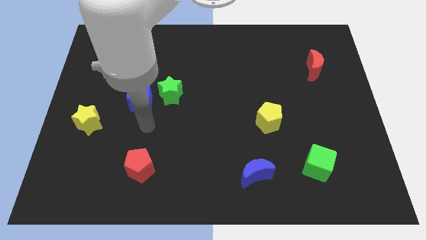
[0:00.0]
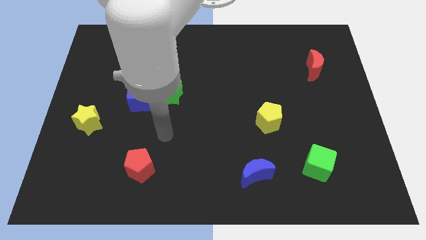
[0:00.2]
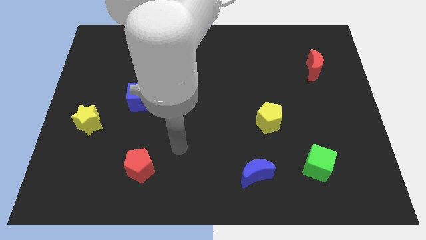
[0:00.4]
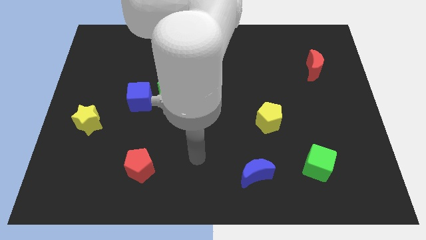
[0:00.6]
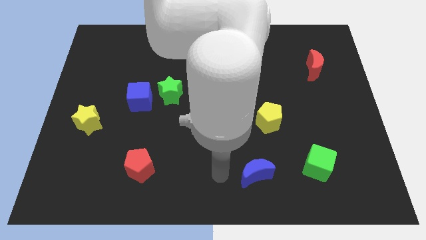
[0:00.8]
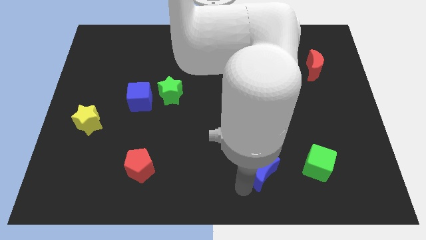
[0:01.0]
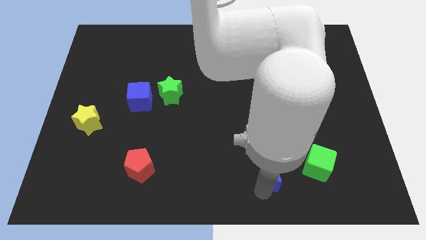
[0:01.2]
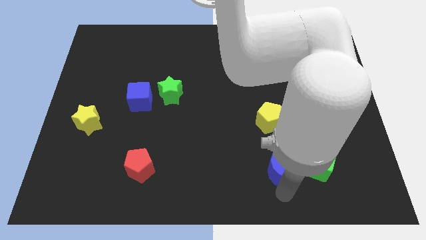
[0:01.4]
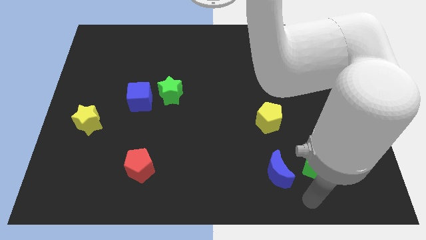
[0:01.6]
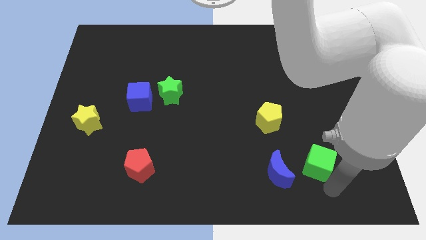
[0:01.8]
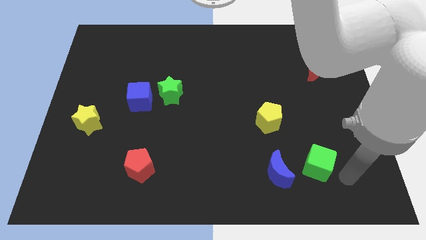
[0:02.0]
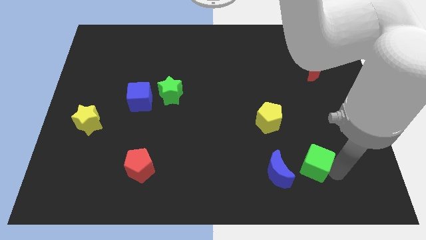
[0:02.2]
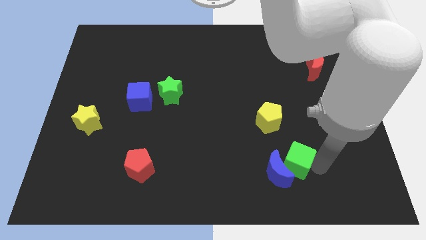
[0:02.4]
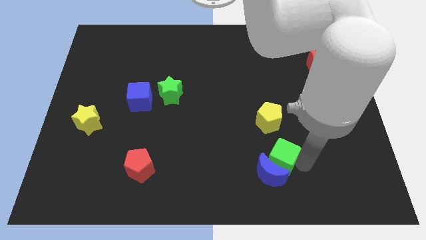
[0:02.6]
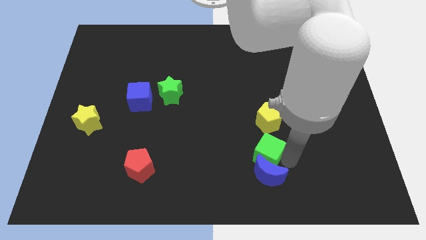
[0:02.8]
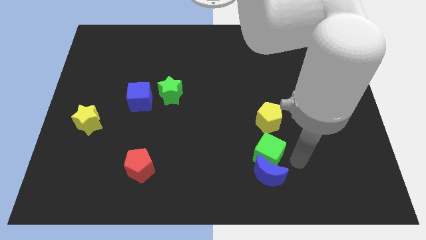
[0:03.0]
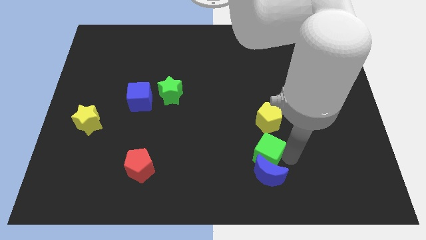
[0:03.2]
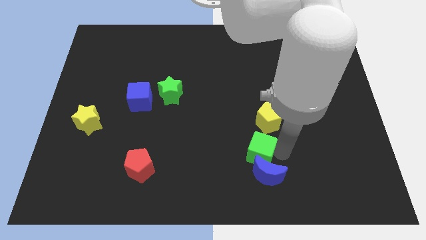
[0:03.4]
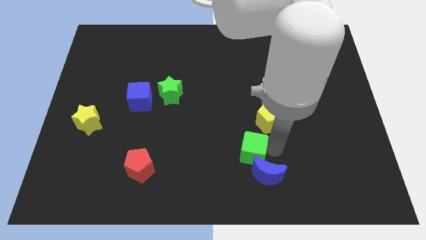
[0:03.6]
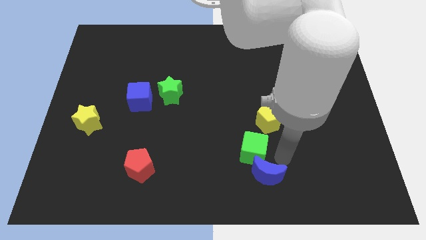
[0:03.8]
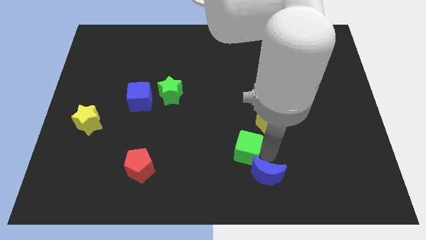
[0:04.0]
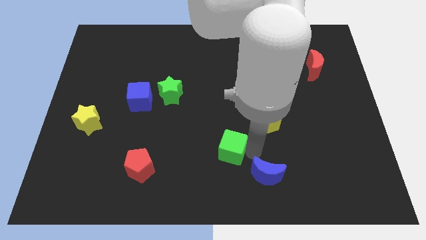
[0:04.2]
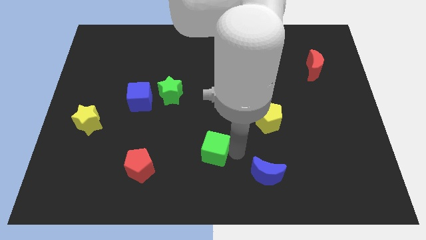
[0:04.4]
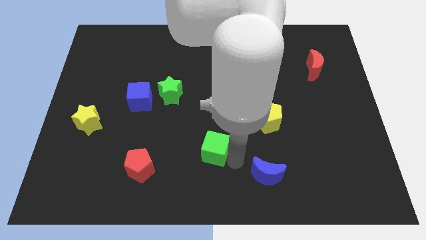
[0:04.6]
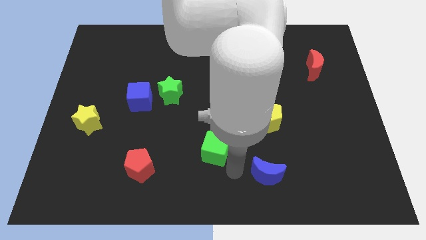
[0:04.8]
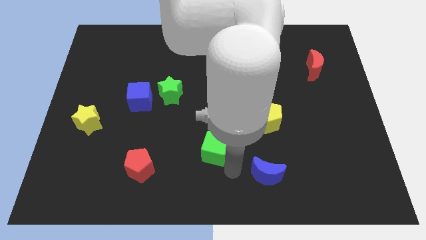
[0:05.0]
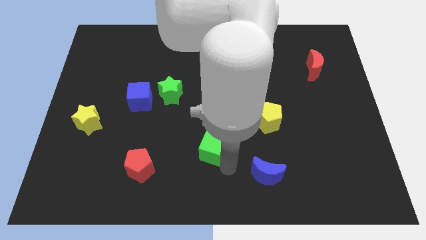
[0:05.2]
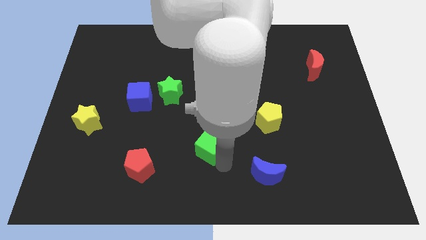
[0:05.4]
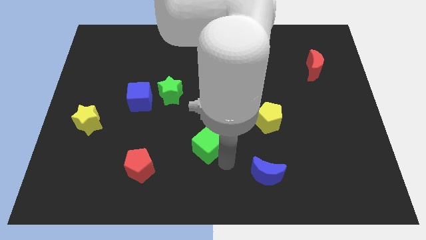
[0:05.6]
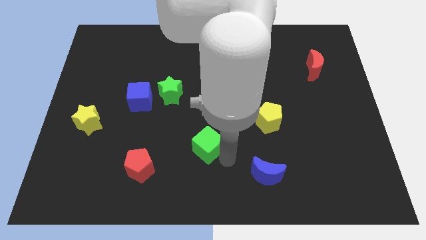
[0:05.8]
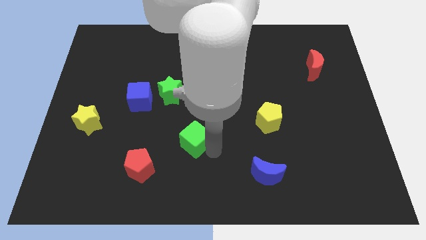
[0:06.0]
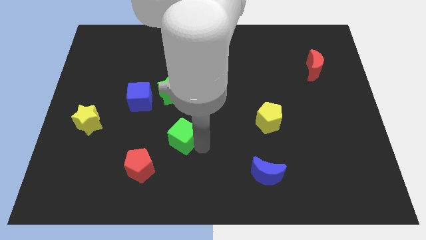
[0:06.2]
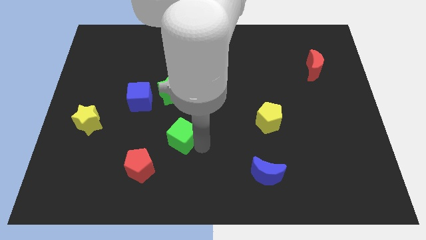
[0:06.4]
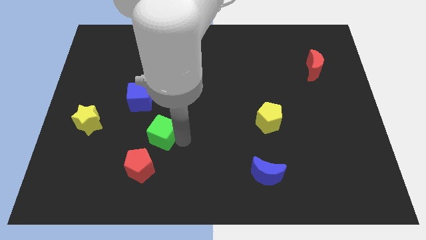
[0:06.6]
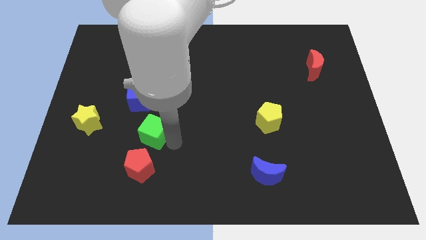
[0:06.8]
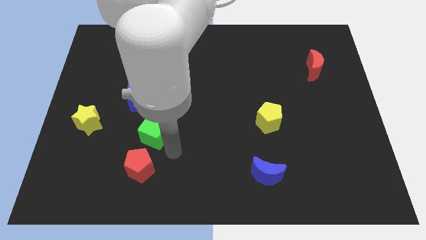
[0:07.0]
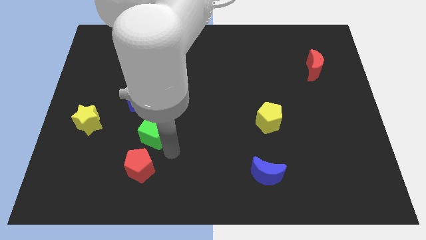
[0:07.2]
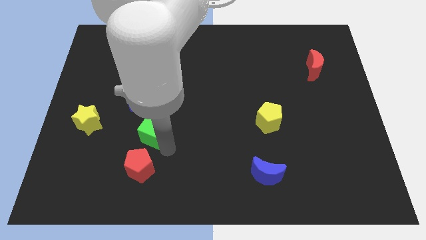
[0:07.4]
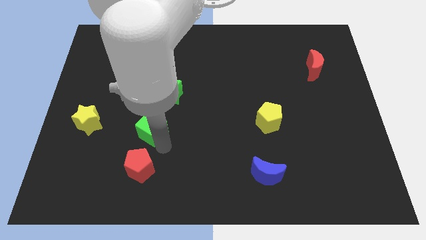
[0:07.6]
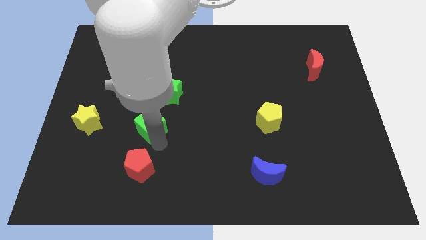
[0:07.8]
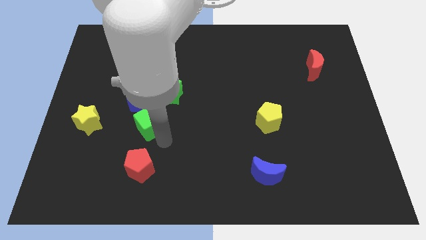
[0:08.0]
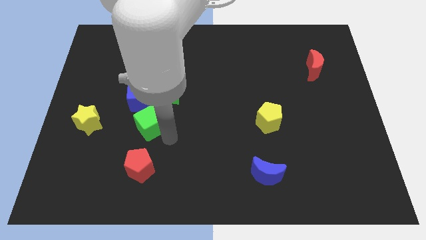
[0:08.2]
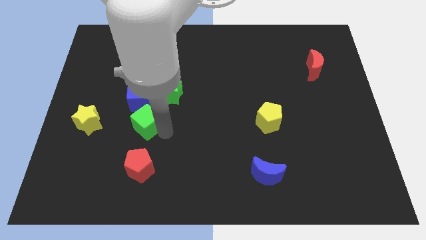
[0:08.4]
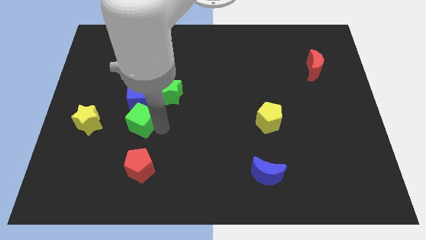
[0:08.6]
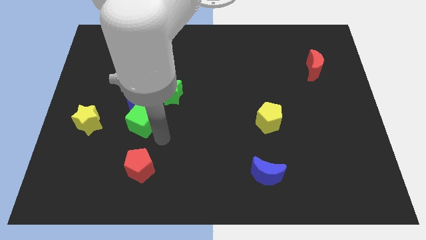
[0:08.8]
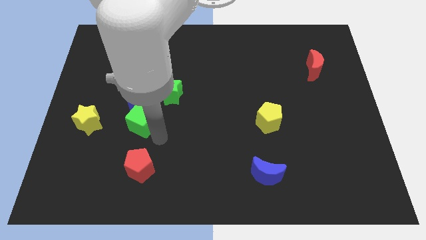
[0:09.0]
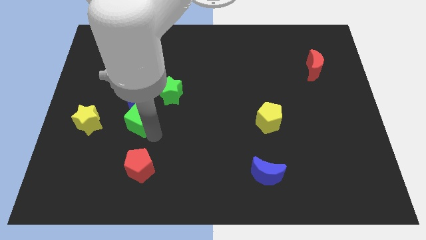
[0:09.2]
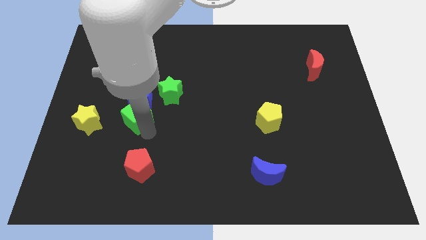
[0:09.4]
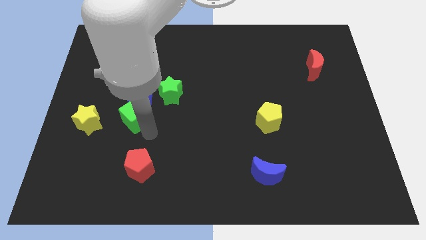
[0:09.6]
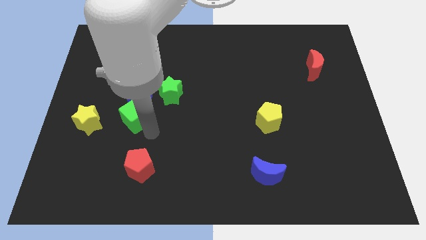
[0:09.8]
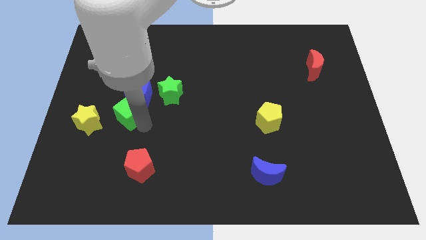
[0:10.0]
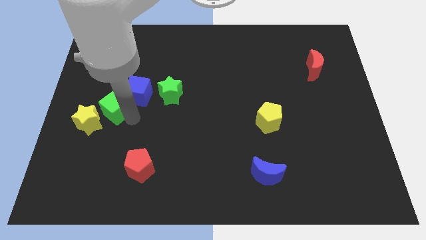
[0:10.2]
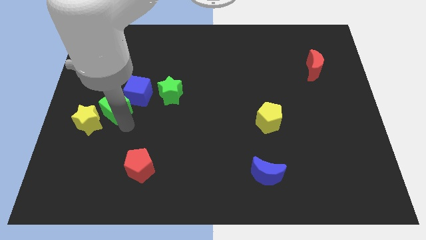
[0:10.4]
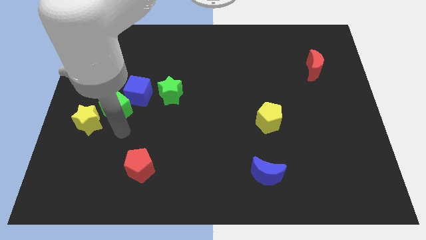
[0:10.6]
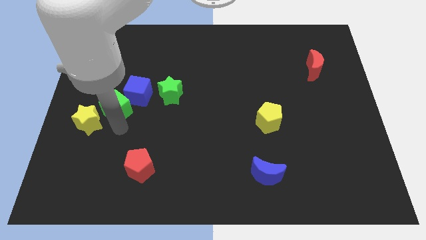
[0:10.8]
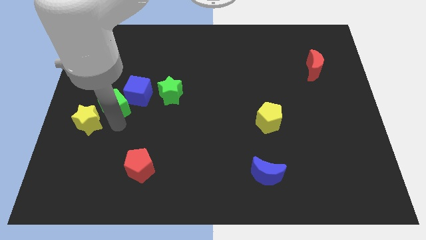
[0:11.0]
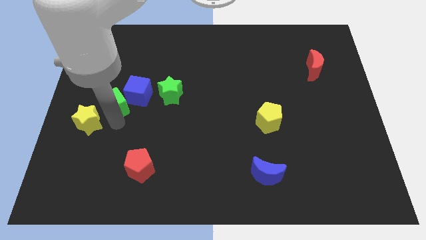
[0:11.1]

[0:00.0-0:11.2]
slide the green cube to the top of the yellow star

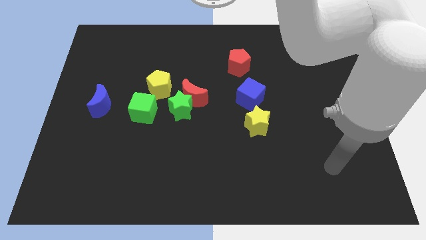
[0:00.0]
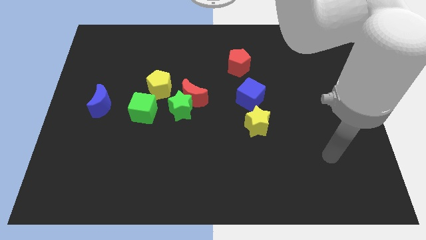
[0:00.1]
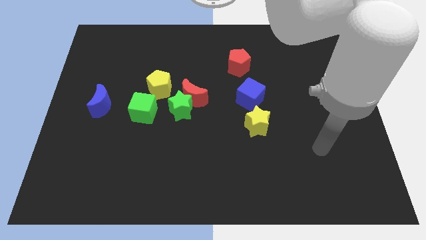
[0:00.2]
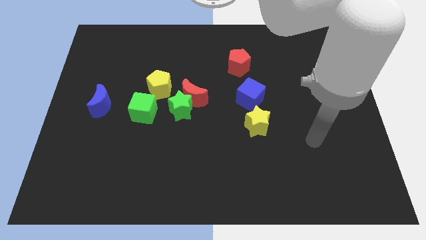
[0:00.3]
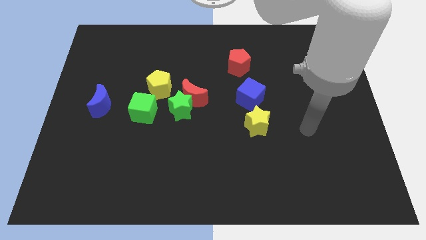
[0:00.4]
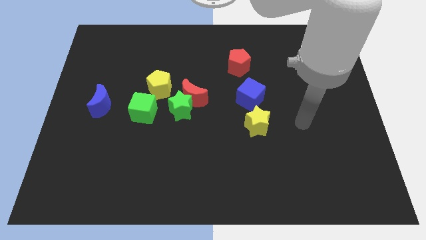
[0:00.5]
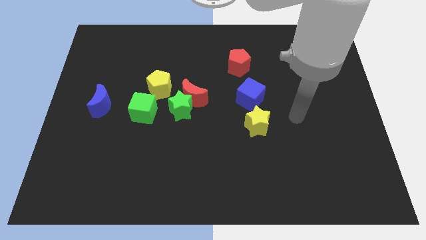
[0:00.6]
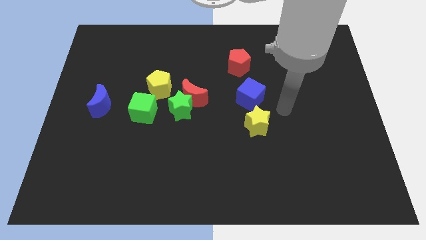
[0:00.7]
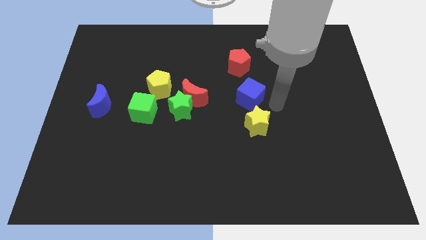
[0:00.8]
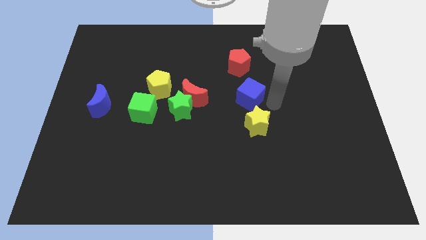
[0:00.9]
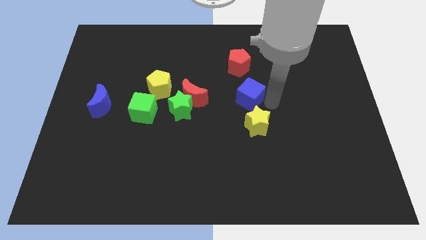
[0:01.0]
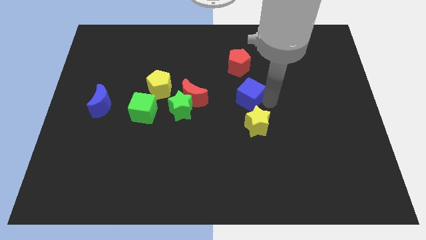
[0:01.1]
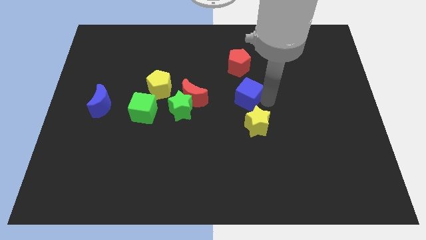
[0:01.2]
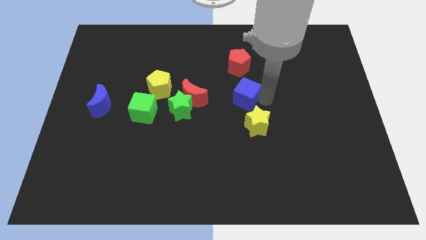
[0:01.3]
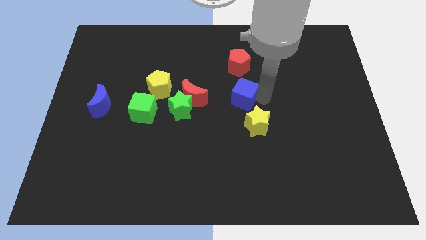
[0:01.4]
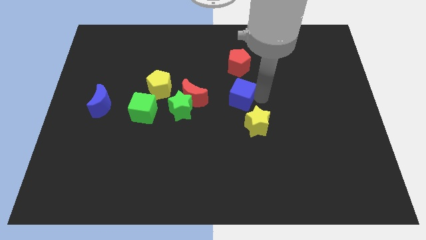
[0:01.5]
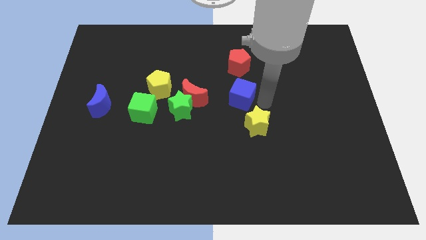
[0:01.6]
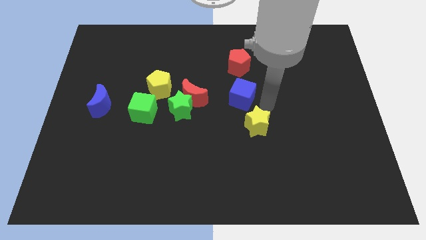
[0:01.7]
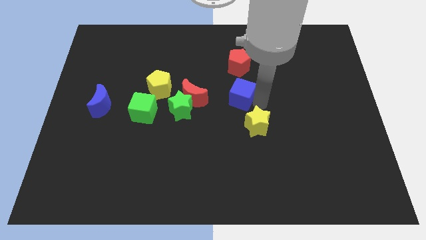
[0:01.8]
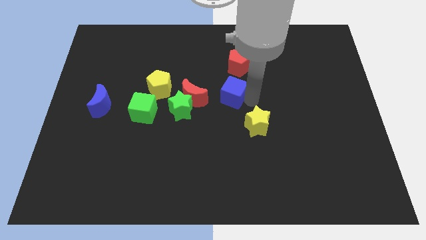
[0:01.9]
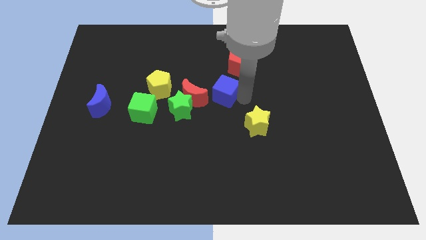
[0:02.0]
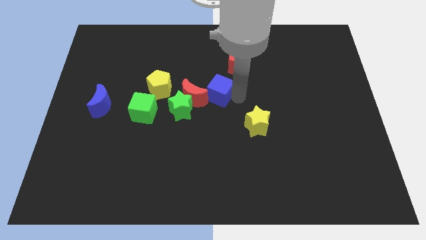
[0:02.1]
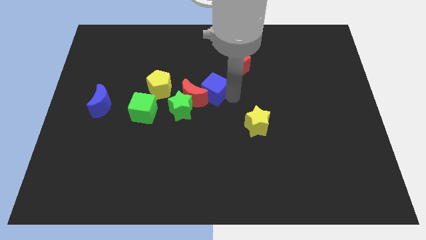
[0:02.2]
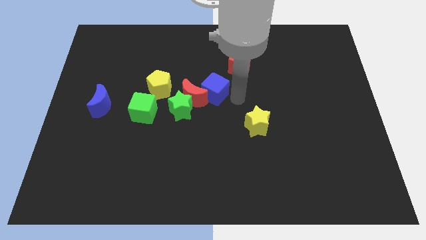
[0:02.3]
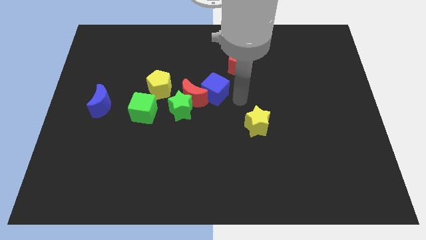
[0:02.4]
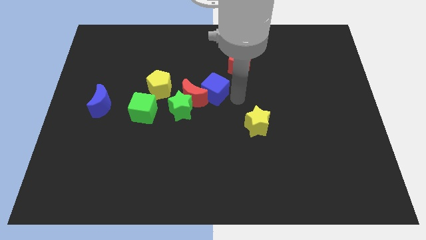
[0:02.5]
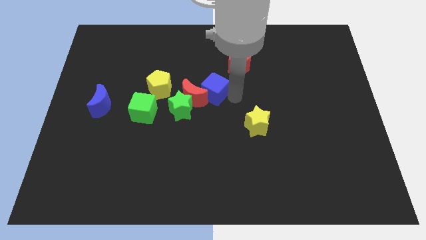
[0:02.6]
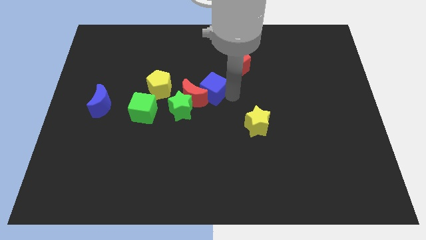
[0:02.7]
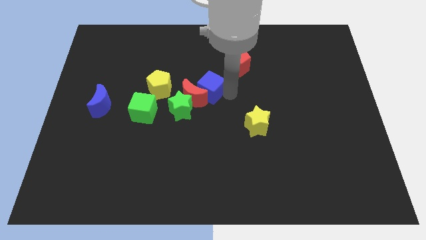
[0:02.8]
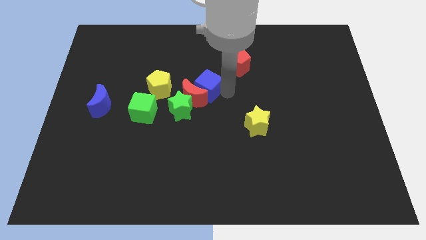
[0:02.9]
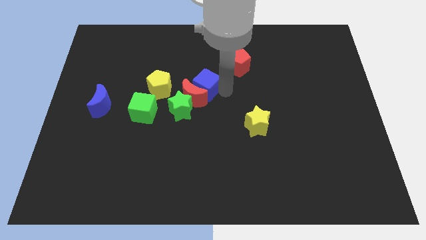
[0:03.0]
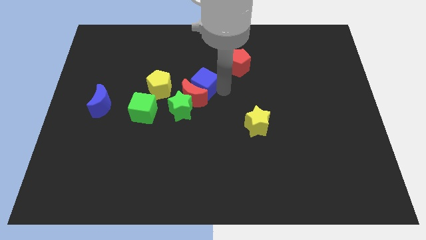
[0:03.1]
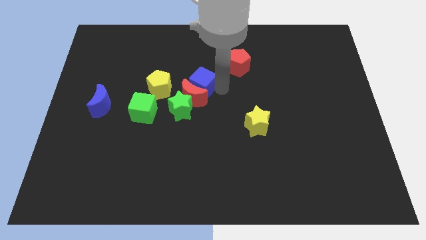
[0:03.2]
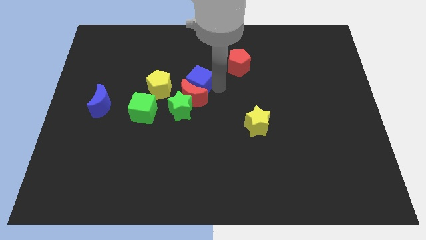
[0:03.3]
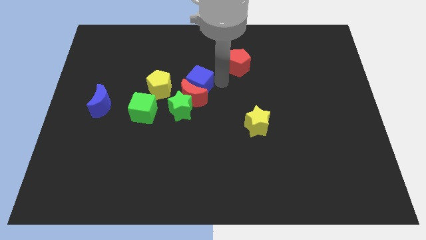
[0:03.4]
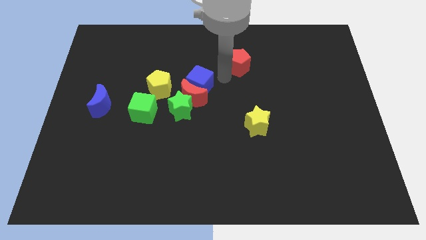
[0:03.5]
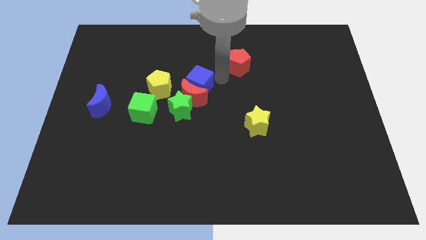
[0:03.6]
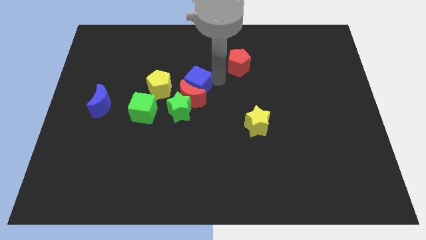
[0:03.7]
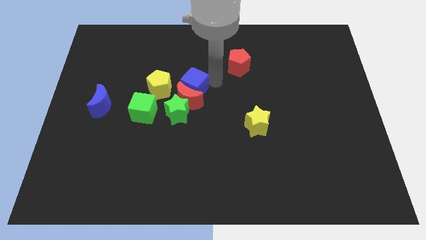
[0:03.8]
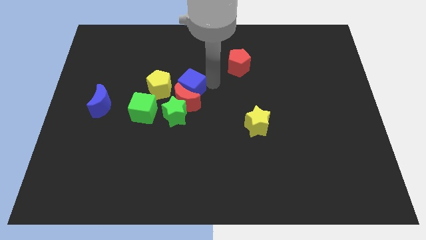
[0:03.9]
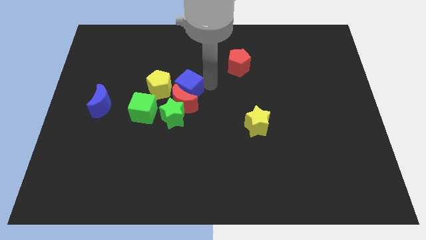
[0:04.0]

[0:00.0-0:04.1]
move the blue cube diagonally up and to the right of the green cube
